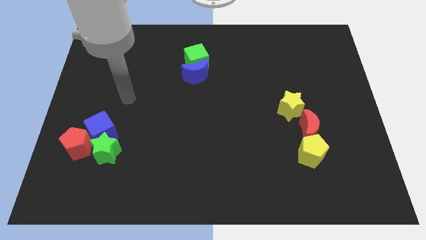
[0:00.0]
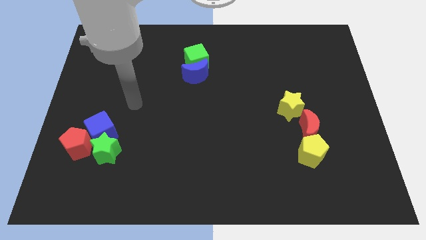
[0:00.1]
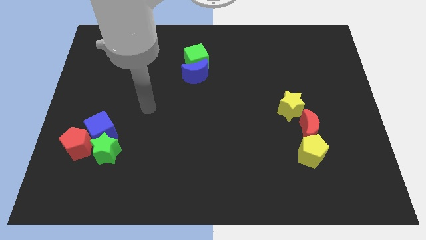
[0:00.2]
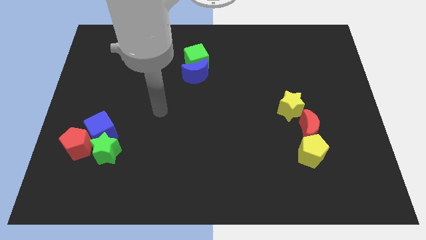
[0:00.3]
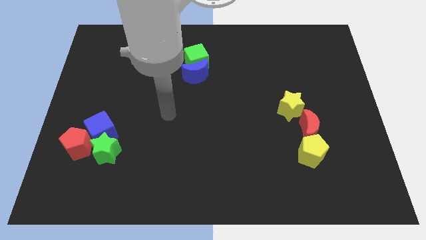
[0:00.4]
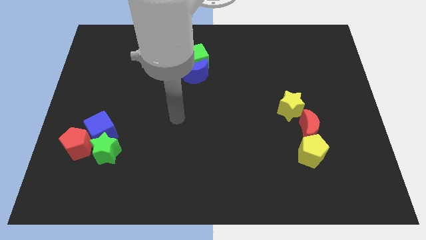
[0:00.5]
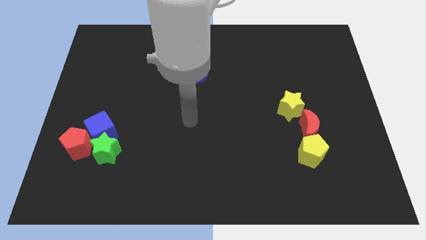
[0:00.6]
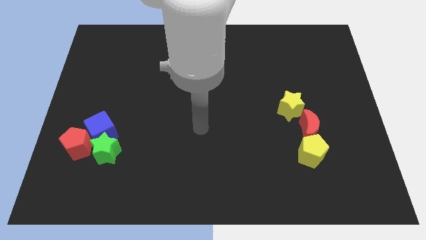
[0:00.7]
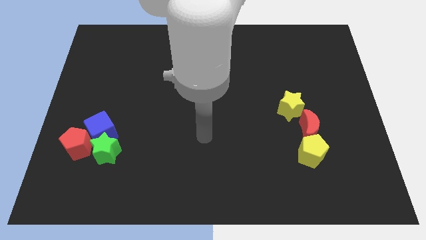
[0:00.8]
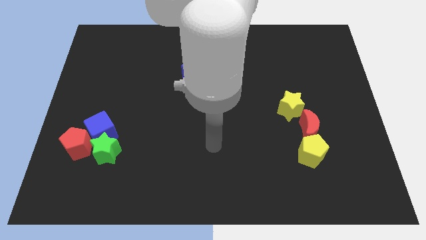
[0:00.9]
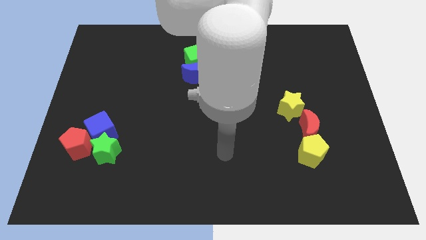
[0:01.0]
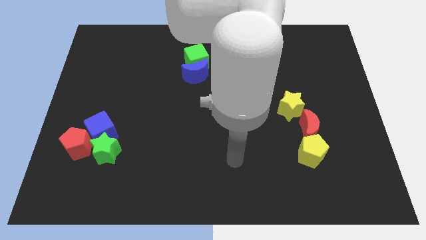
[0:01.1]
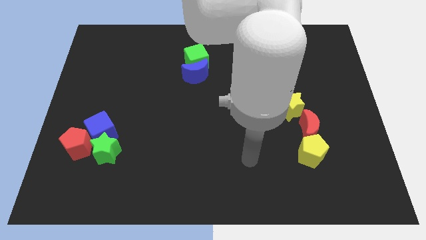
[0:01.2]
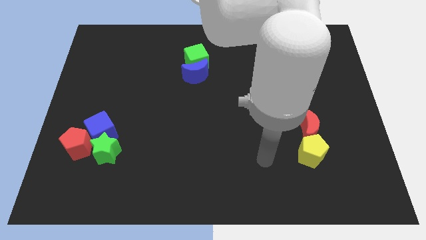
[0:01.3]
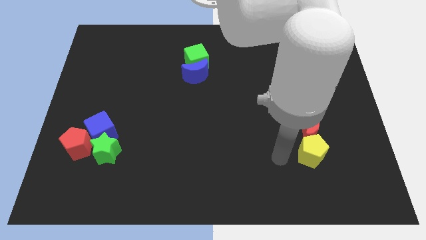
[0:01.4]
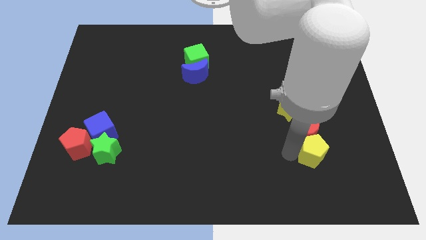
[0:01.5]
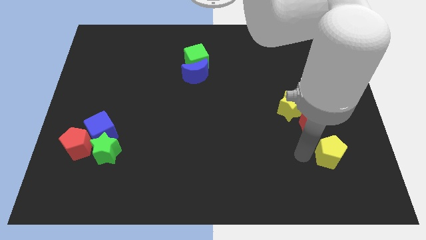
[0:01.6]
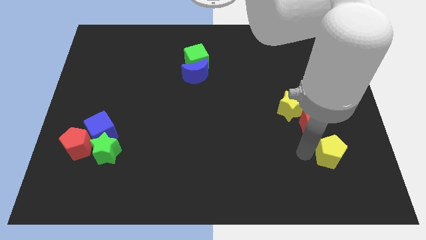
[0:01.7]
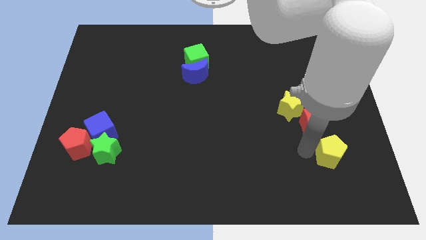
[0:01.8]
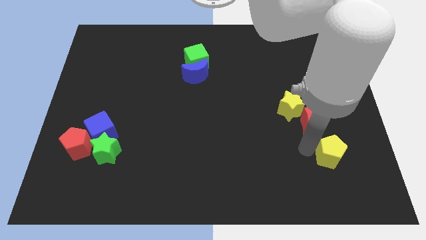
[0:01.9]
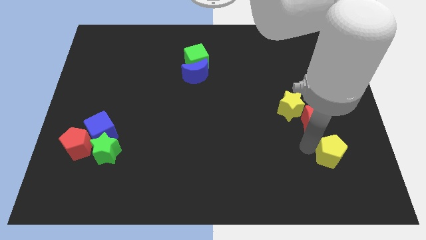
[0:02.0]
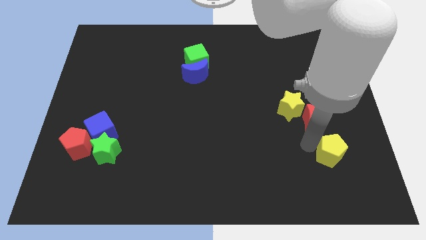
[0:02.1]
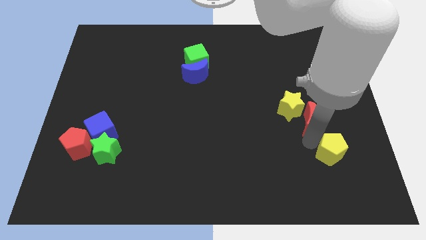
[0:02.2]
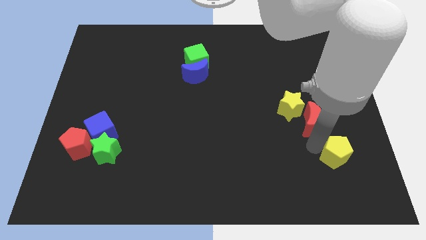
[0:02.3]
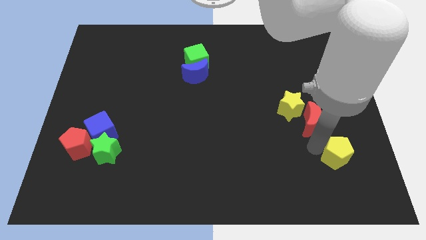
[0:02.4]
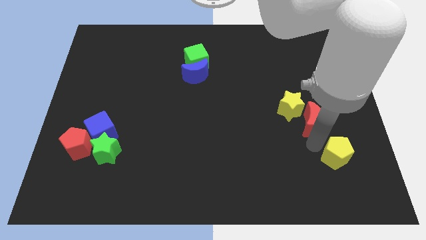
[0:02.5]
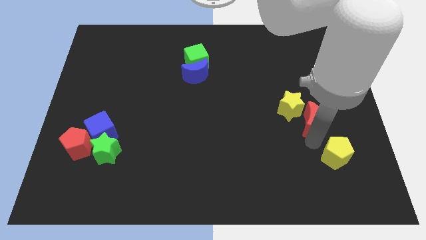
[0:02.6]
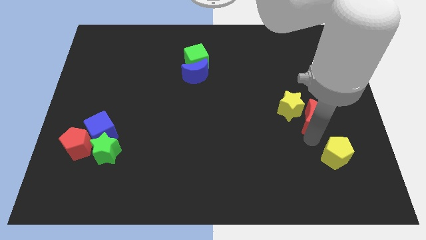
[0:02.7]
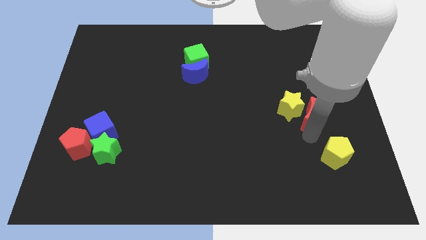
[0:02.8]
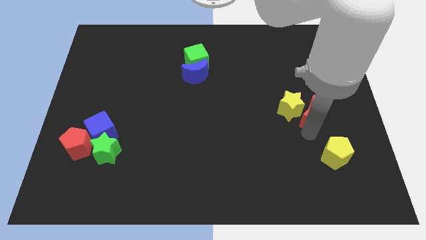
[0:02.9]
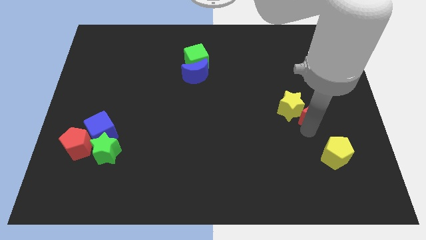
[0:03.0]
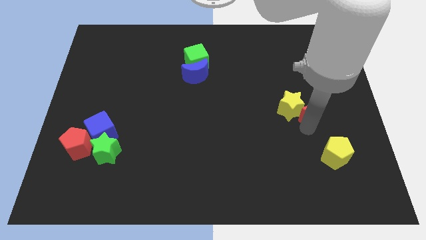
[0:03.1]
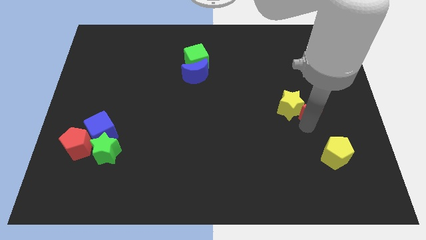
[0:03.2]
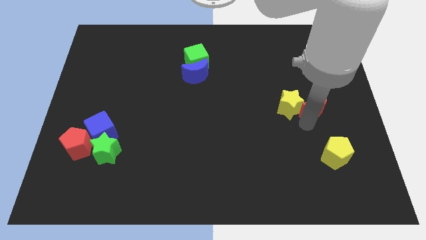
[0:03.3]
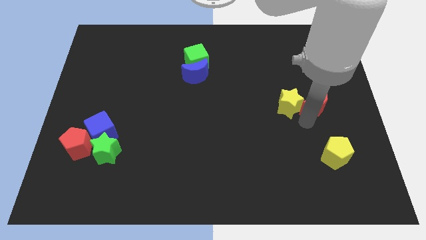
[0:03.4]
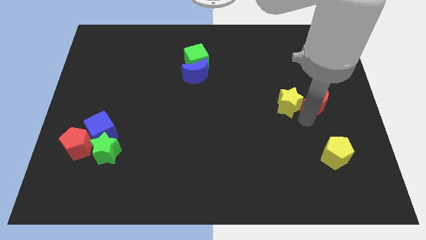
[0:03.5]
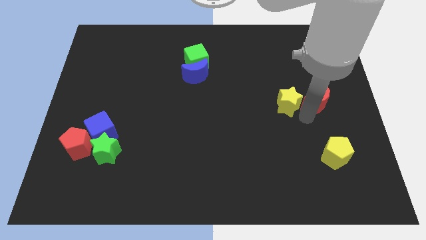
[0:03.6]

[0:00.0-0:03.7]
push the red moon up somewhat

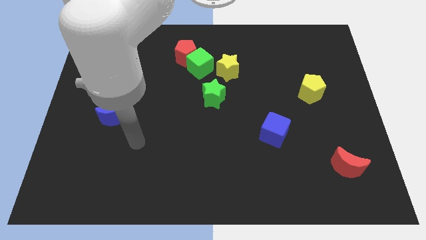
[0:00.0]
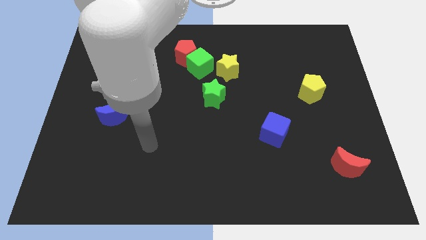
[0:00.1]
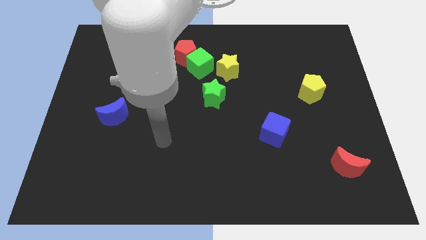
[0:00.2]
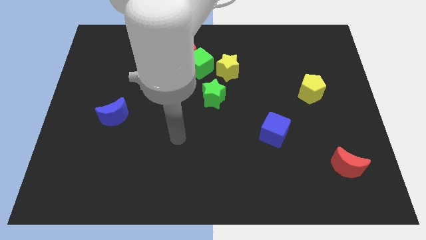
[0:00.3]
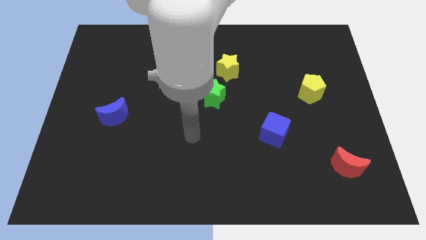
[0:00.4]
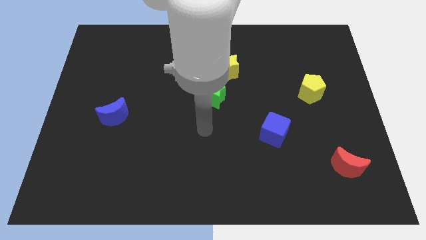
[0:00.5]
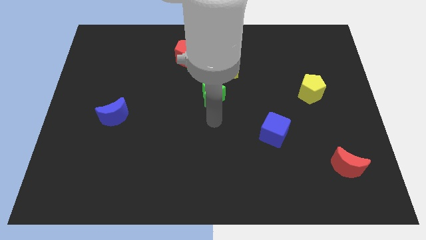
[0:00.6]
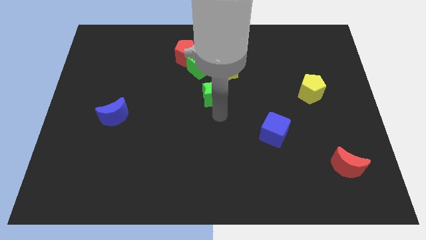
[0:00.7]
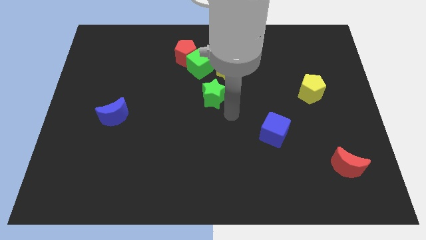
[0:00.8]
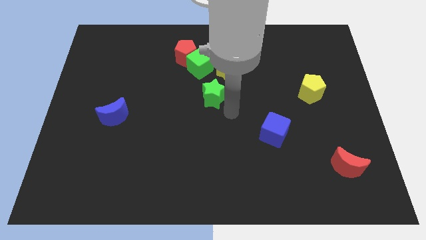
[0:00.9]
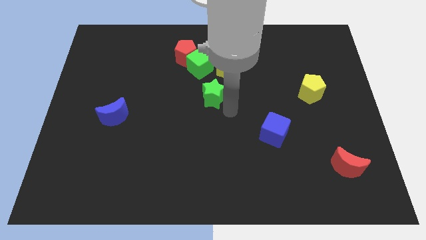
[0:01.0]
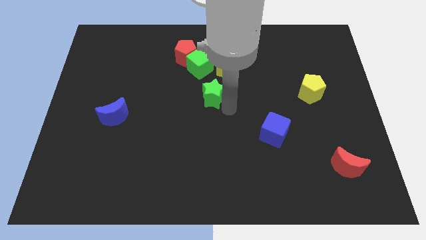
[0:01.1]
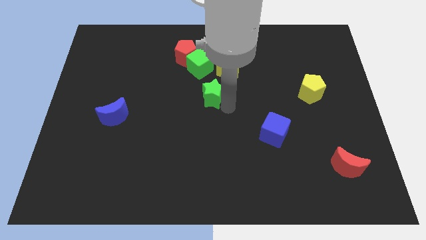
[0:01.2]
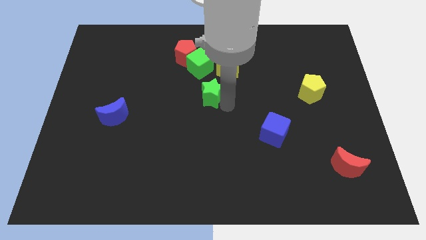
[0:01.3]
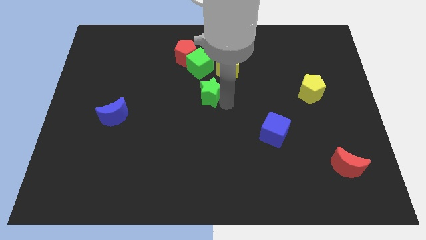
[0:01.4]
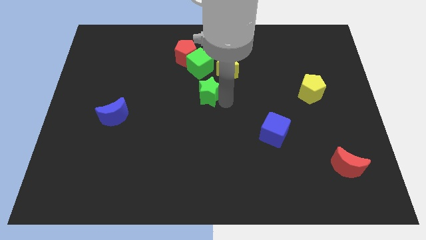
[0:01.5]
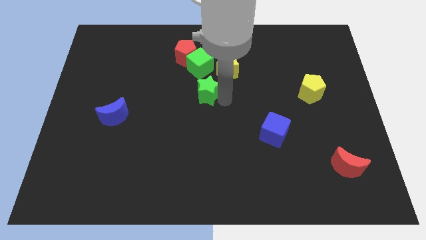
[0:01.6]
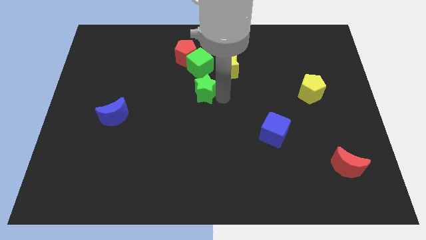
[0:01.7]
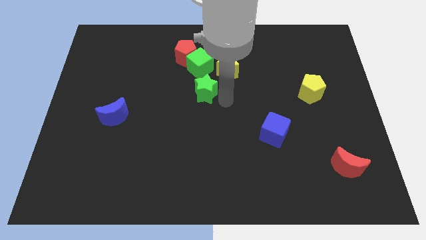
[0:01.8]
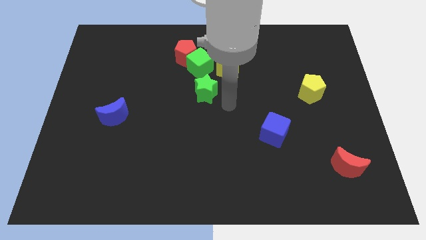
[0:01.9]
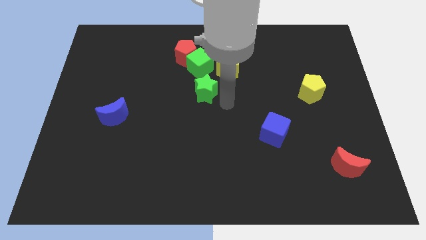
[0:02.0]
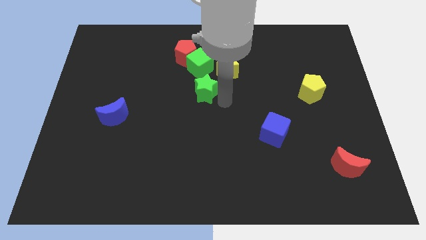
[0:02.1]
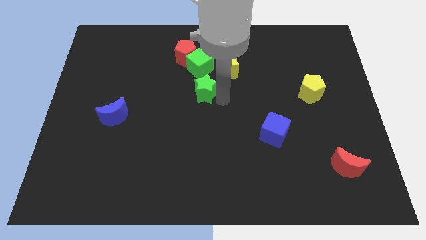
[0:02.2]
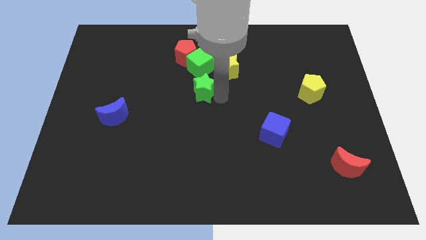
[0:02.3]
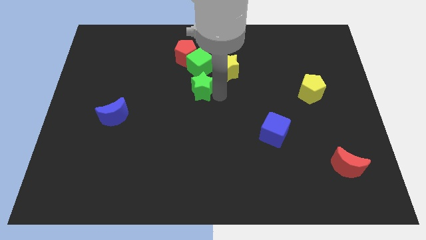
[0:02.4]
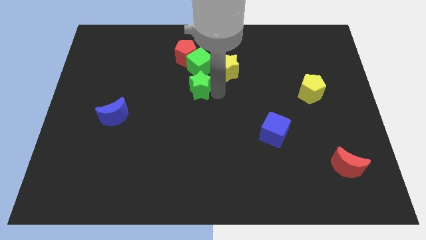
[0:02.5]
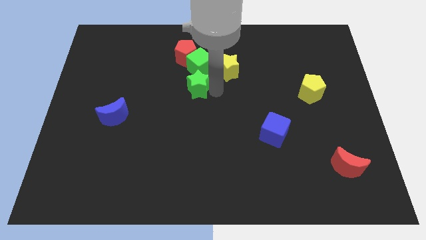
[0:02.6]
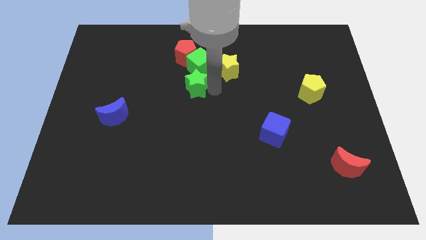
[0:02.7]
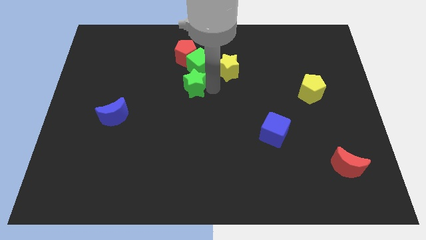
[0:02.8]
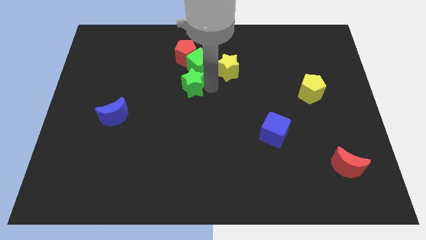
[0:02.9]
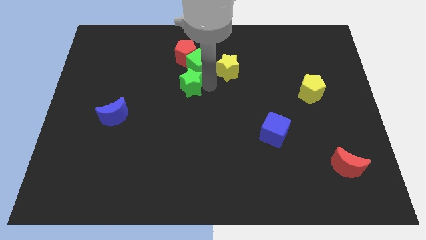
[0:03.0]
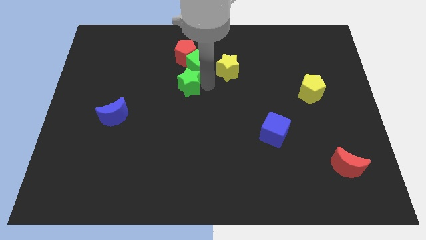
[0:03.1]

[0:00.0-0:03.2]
slide the green star up and left slightly

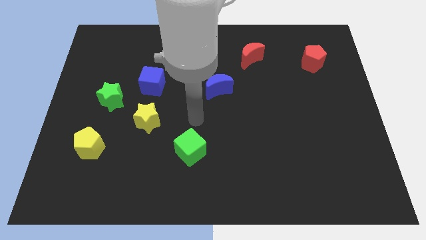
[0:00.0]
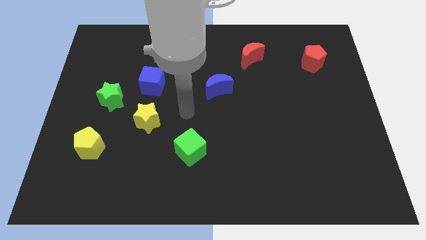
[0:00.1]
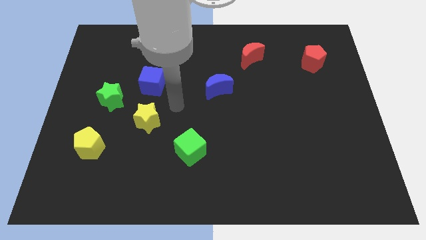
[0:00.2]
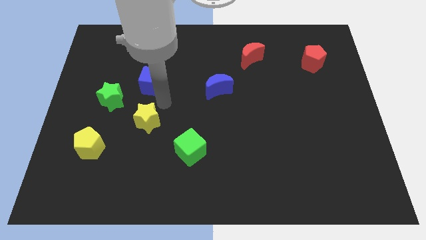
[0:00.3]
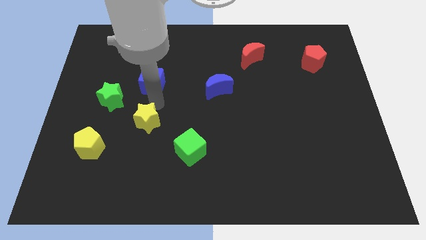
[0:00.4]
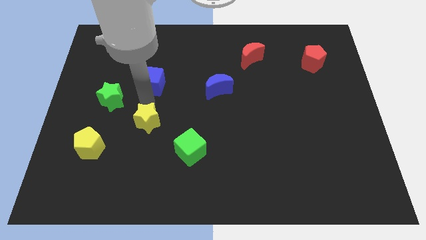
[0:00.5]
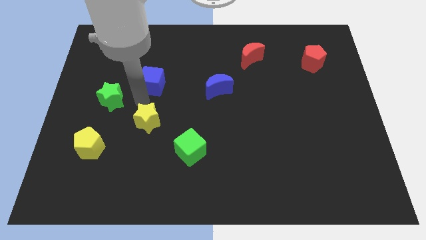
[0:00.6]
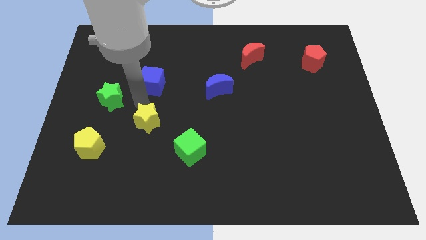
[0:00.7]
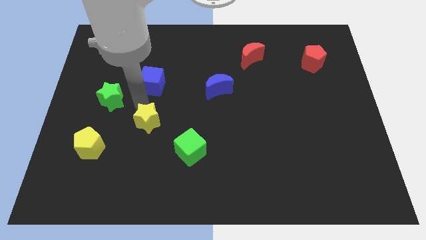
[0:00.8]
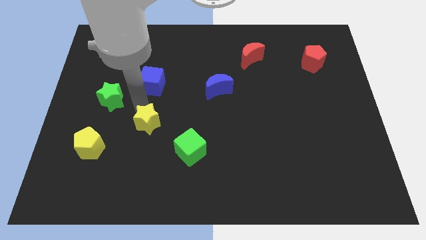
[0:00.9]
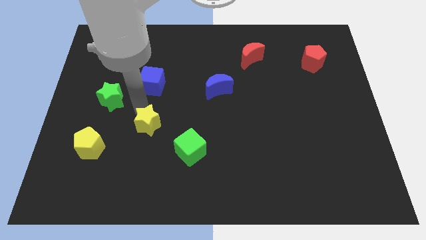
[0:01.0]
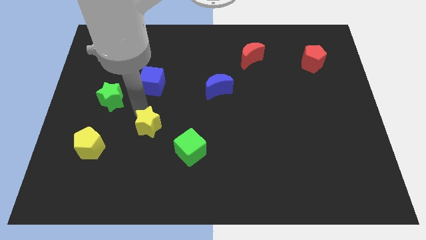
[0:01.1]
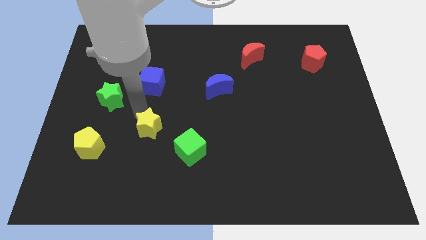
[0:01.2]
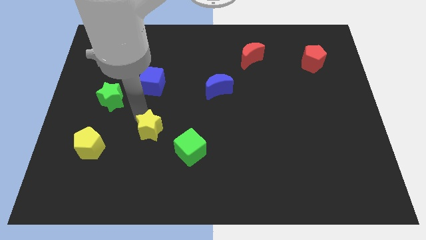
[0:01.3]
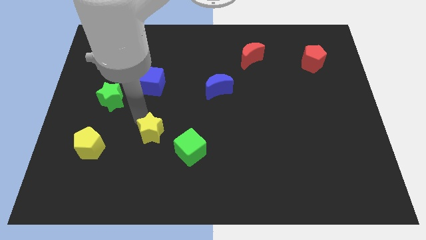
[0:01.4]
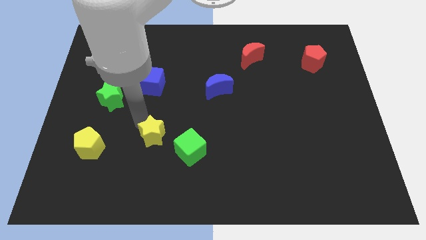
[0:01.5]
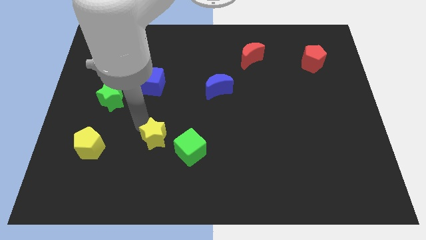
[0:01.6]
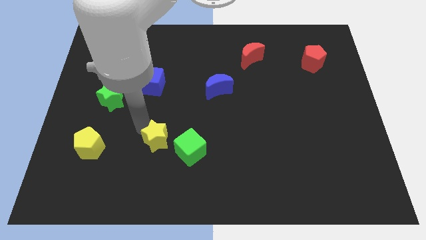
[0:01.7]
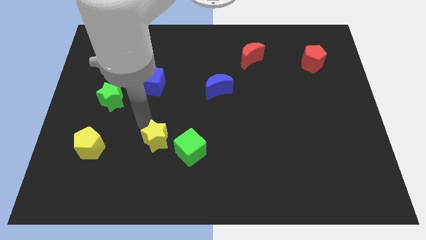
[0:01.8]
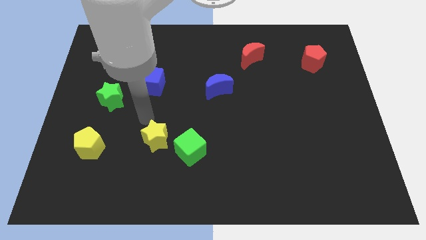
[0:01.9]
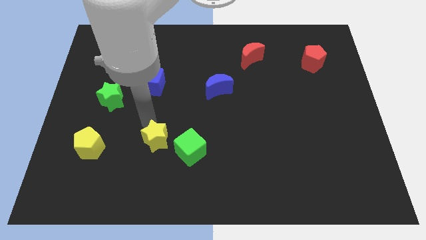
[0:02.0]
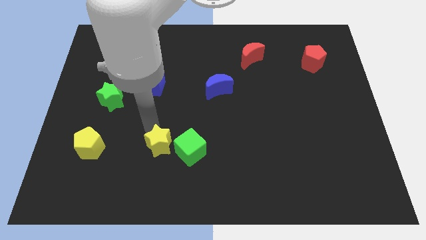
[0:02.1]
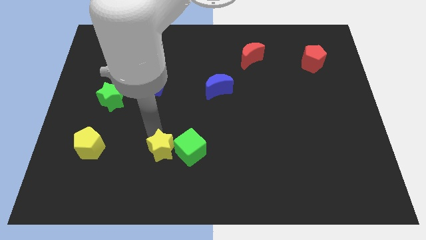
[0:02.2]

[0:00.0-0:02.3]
slide the yellow star somewhat diagonally downwards and to the right
